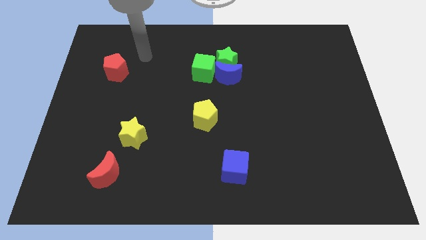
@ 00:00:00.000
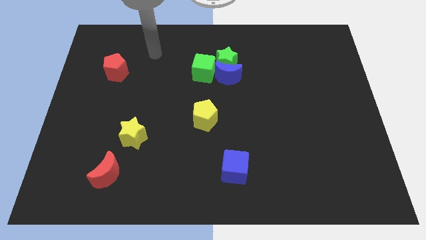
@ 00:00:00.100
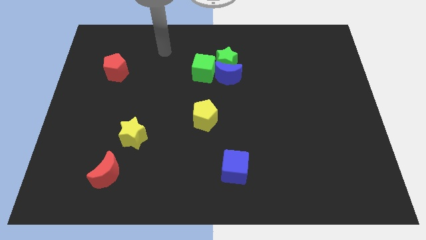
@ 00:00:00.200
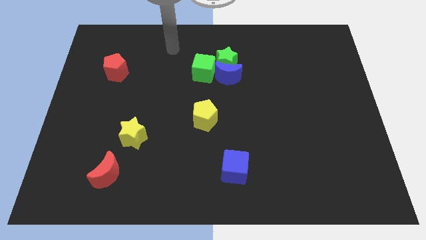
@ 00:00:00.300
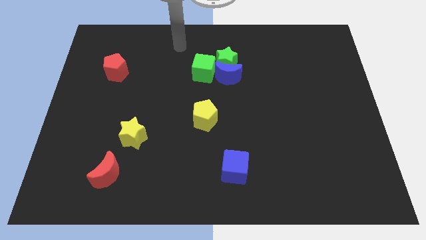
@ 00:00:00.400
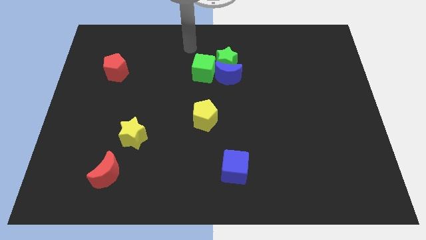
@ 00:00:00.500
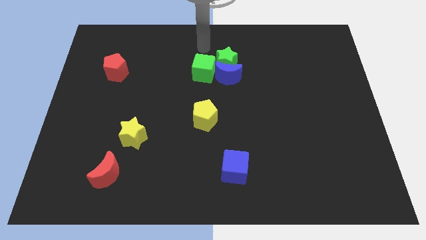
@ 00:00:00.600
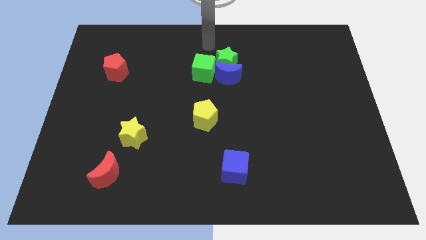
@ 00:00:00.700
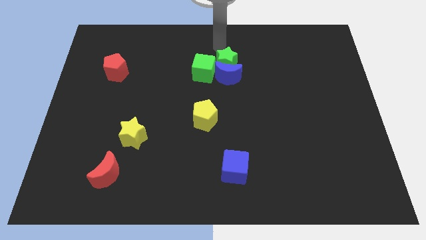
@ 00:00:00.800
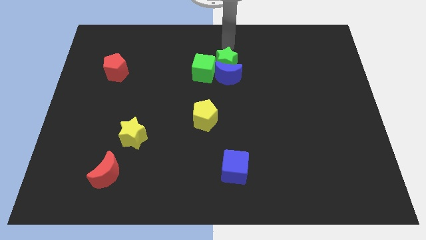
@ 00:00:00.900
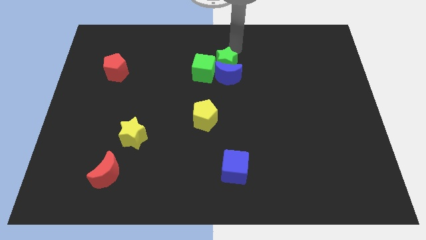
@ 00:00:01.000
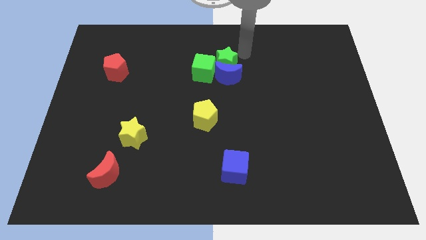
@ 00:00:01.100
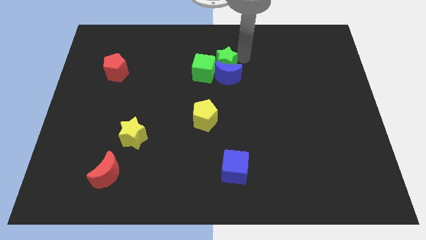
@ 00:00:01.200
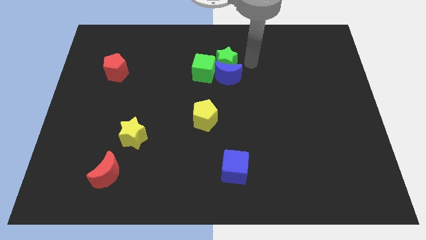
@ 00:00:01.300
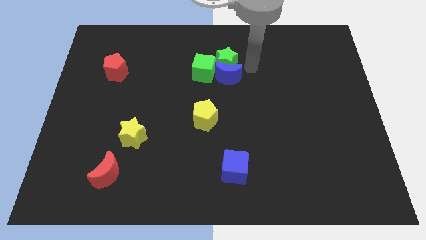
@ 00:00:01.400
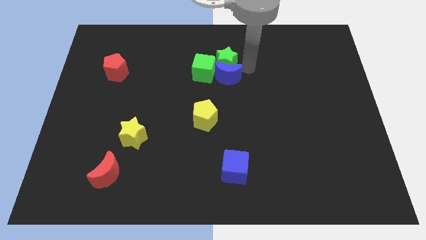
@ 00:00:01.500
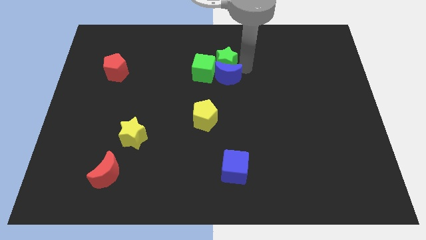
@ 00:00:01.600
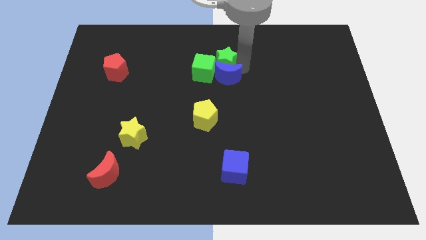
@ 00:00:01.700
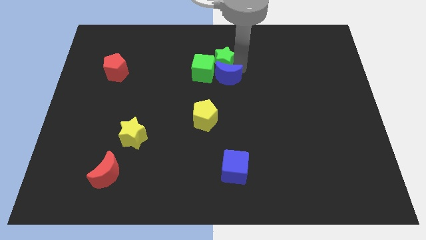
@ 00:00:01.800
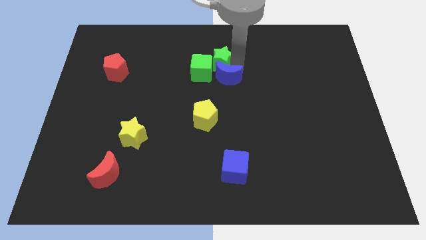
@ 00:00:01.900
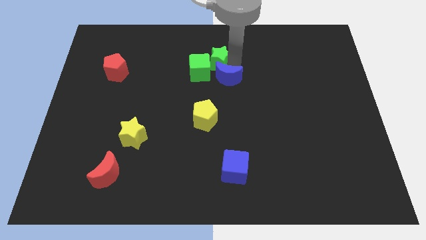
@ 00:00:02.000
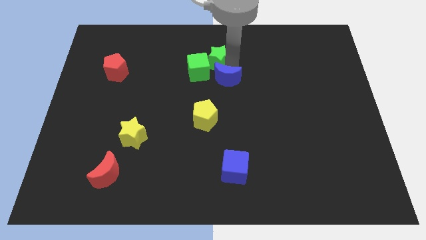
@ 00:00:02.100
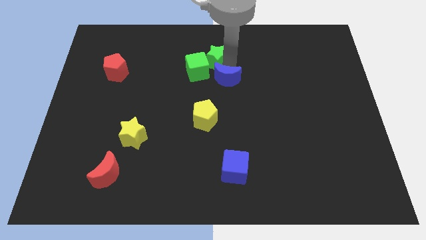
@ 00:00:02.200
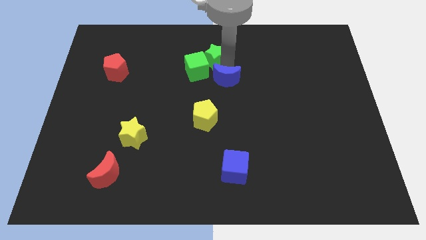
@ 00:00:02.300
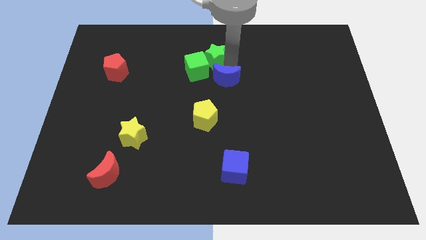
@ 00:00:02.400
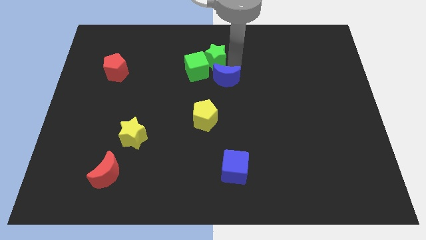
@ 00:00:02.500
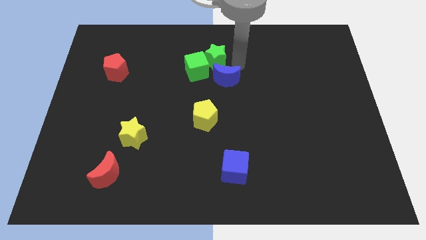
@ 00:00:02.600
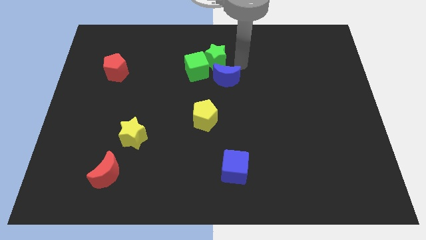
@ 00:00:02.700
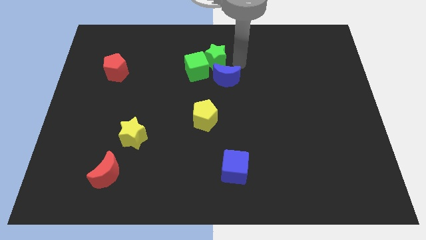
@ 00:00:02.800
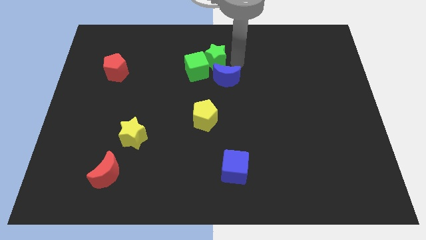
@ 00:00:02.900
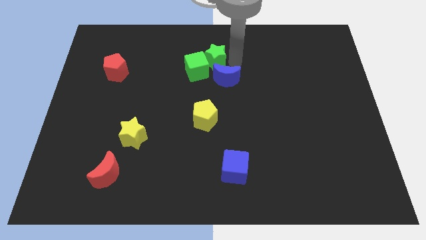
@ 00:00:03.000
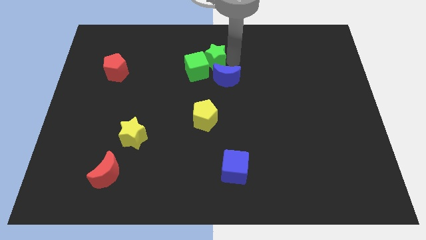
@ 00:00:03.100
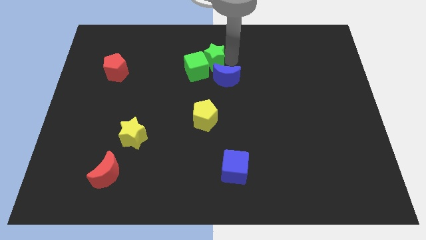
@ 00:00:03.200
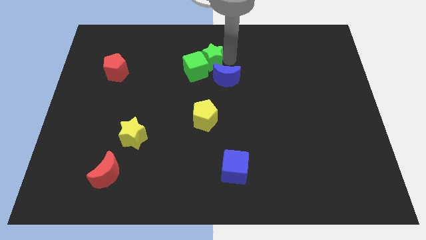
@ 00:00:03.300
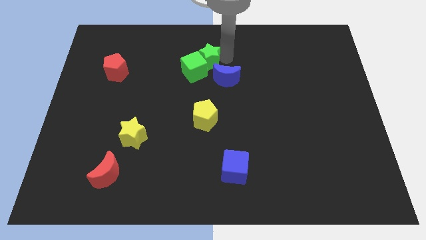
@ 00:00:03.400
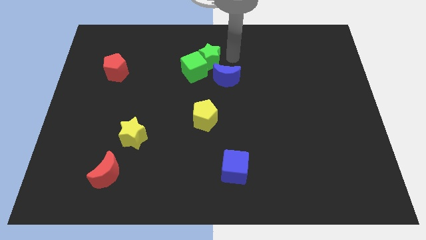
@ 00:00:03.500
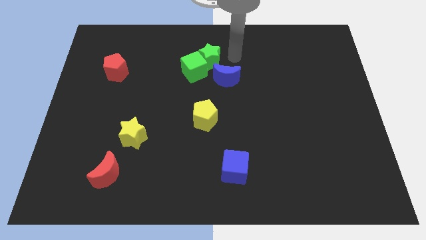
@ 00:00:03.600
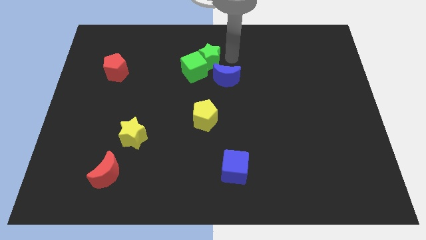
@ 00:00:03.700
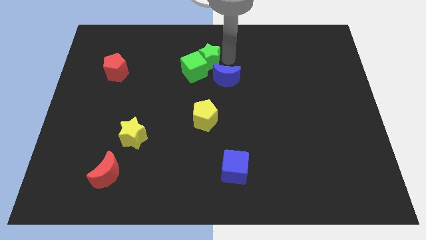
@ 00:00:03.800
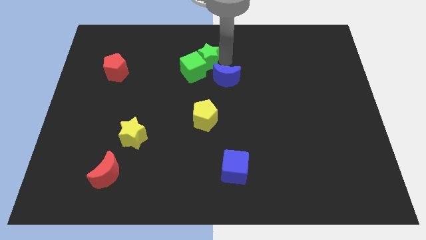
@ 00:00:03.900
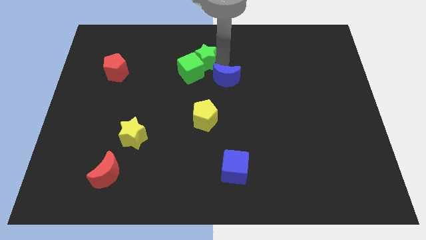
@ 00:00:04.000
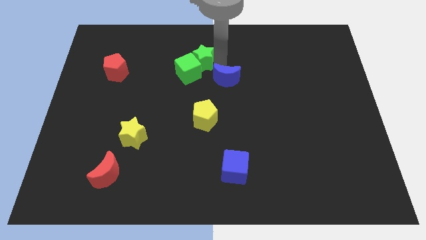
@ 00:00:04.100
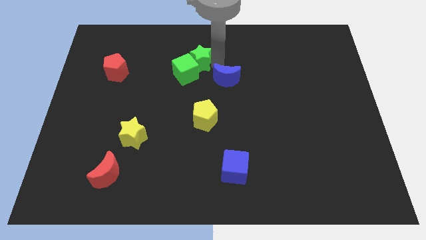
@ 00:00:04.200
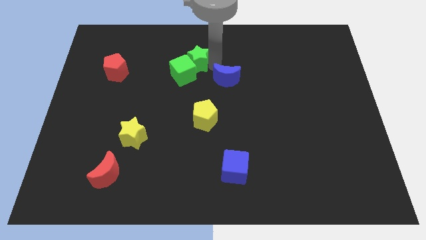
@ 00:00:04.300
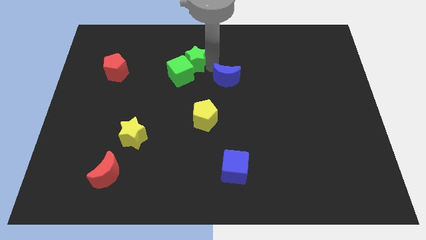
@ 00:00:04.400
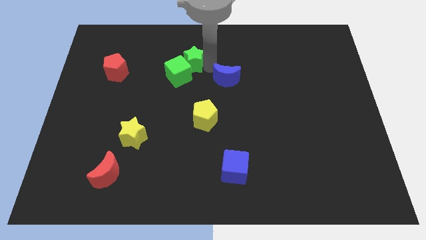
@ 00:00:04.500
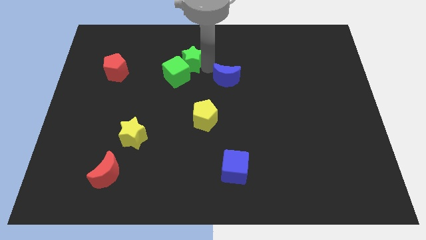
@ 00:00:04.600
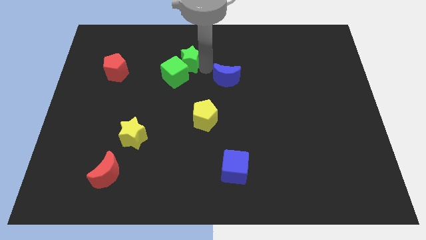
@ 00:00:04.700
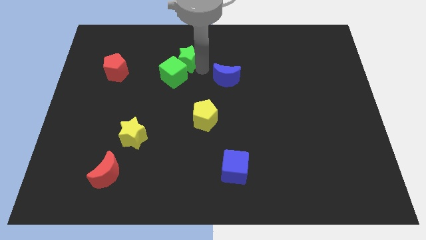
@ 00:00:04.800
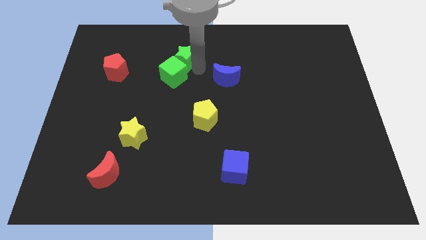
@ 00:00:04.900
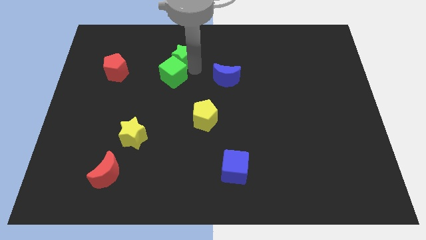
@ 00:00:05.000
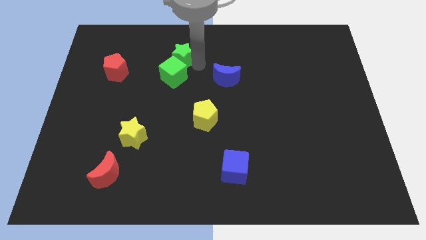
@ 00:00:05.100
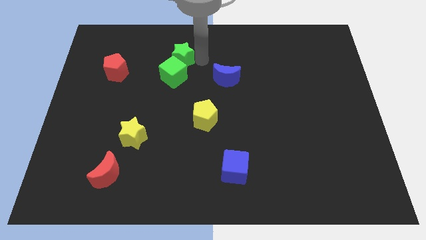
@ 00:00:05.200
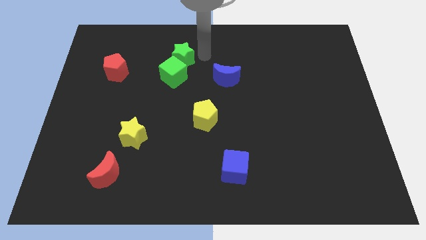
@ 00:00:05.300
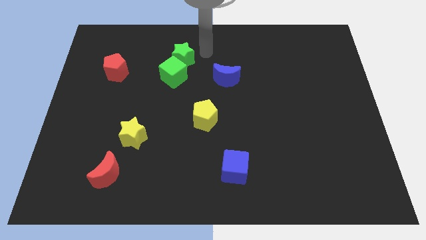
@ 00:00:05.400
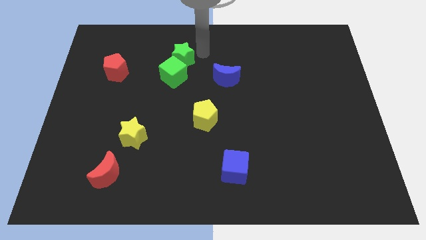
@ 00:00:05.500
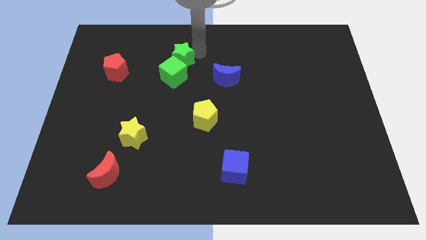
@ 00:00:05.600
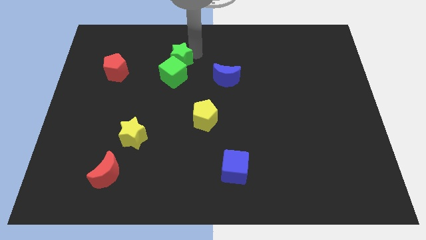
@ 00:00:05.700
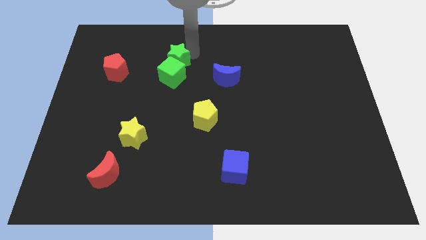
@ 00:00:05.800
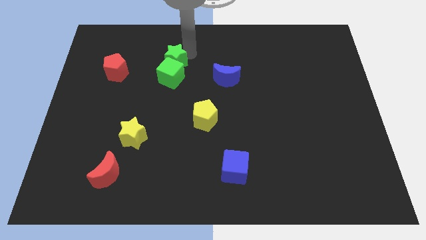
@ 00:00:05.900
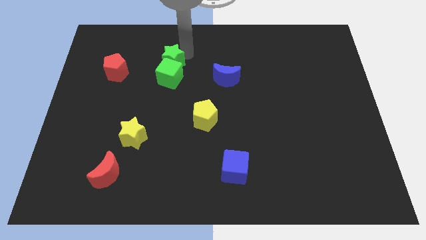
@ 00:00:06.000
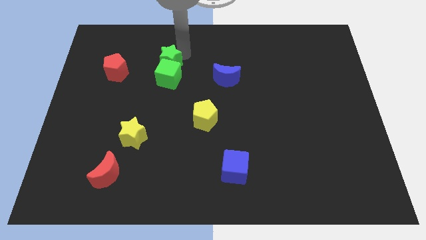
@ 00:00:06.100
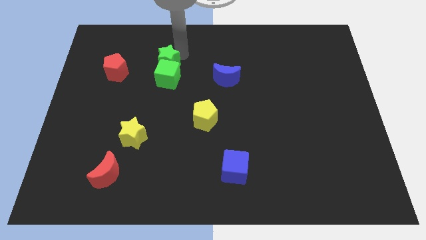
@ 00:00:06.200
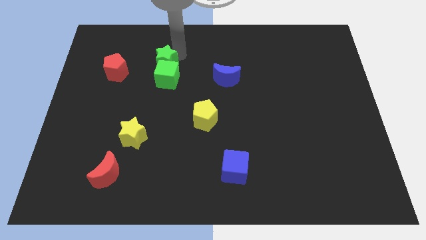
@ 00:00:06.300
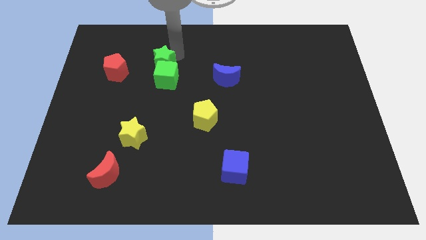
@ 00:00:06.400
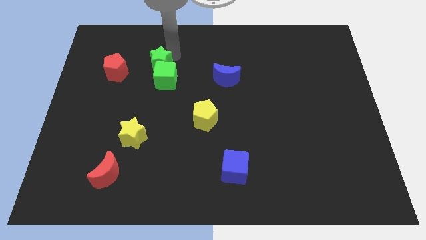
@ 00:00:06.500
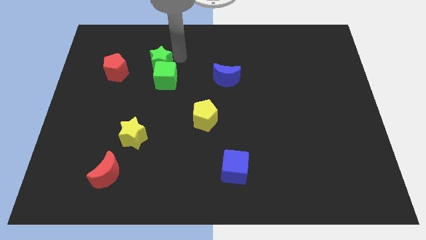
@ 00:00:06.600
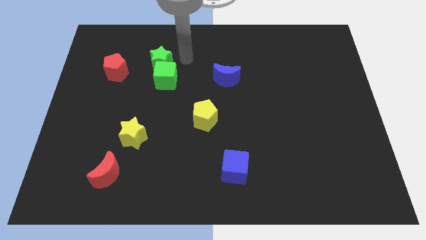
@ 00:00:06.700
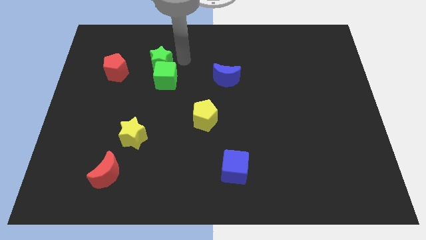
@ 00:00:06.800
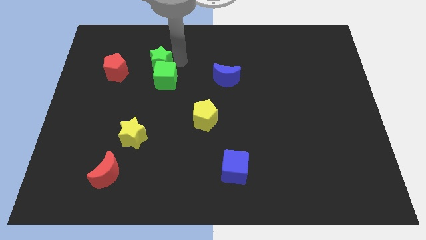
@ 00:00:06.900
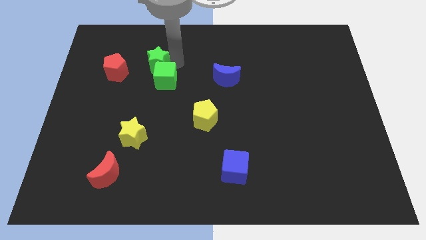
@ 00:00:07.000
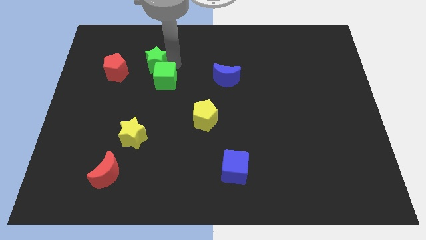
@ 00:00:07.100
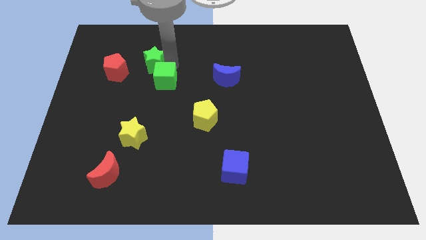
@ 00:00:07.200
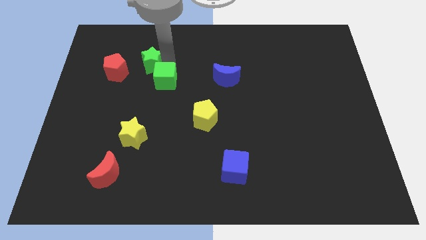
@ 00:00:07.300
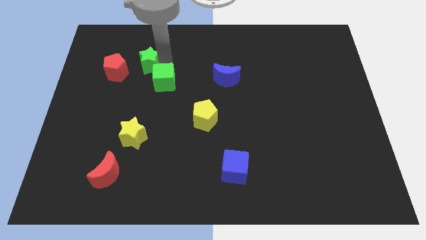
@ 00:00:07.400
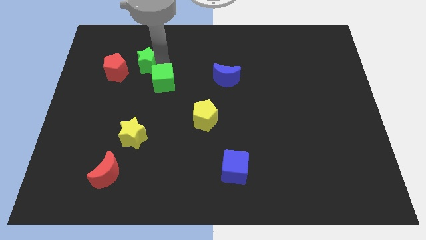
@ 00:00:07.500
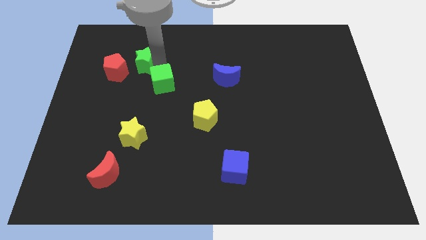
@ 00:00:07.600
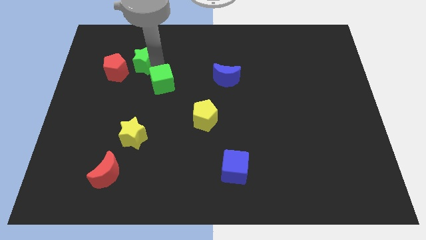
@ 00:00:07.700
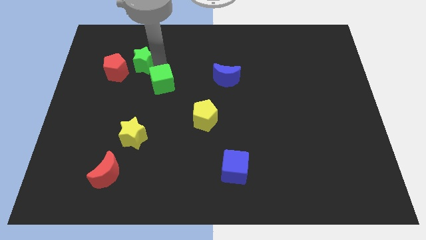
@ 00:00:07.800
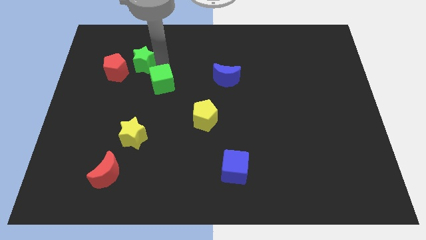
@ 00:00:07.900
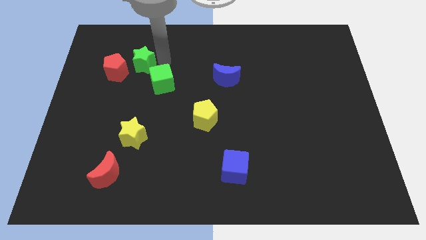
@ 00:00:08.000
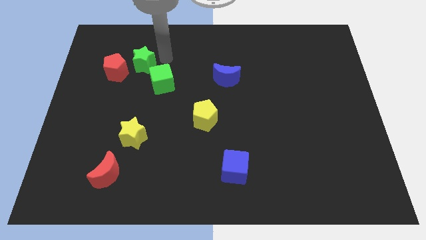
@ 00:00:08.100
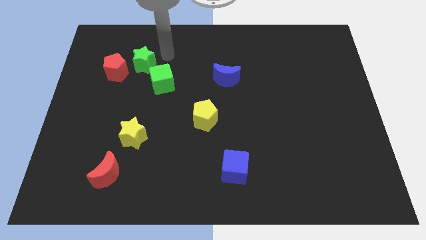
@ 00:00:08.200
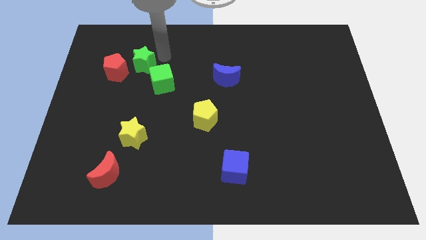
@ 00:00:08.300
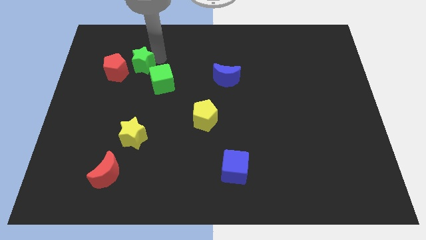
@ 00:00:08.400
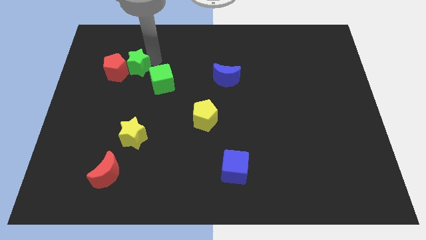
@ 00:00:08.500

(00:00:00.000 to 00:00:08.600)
push the green star close to the red pentagon
